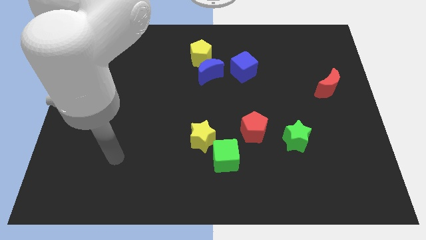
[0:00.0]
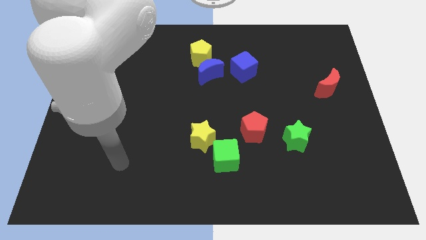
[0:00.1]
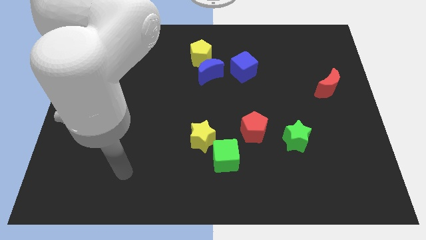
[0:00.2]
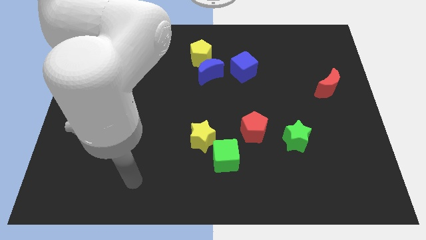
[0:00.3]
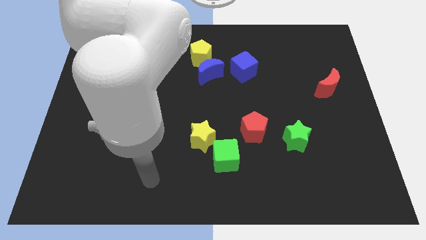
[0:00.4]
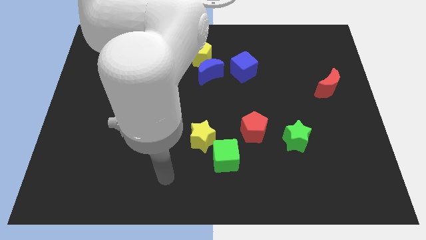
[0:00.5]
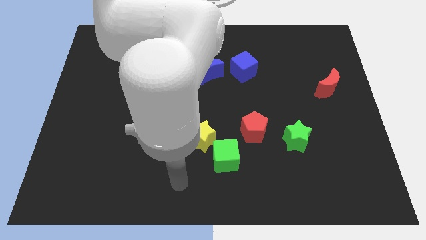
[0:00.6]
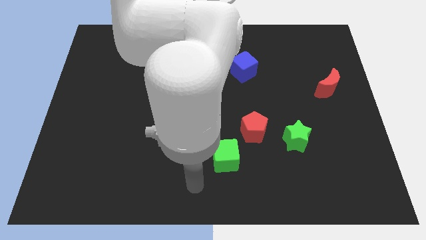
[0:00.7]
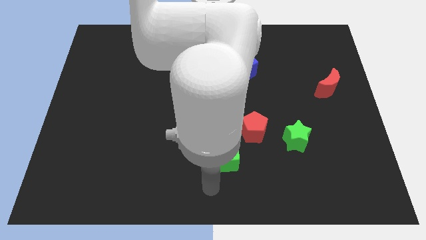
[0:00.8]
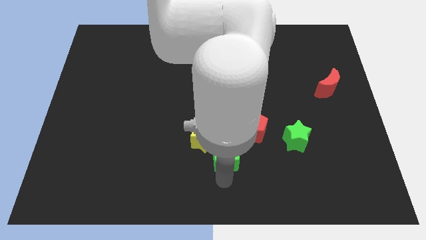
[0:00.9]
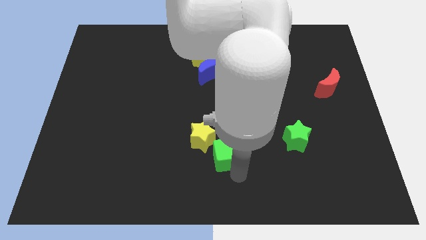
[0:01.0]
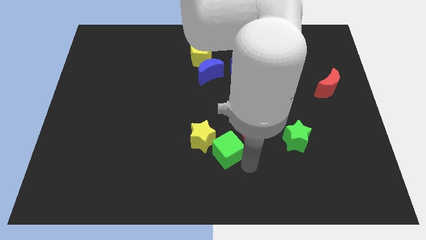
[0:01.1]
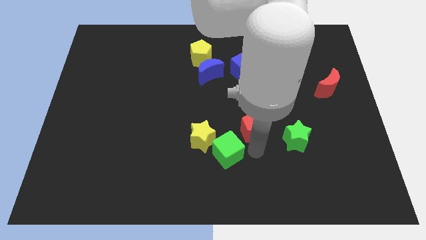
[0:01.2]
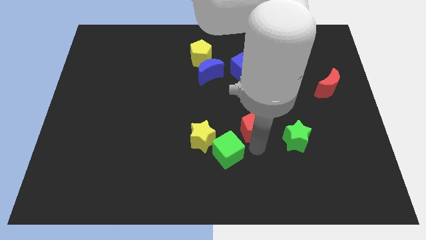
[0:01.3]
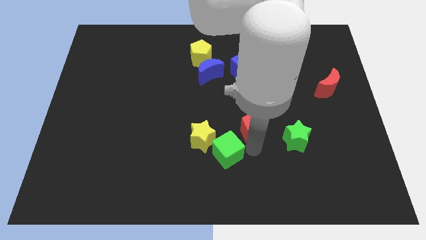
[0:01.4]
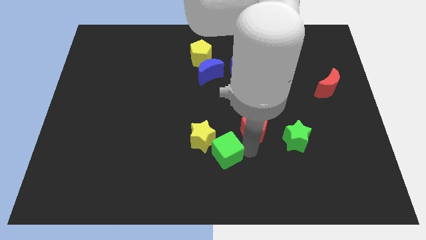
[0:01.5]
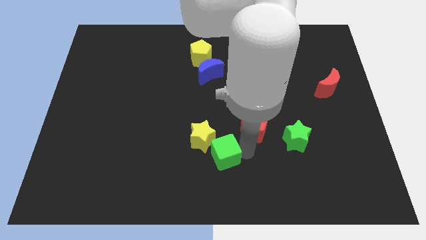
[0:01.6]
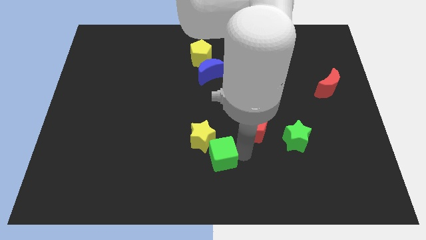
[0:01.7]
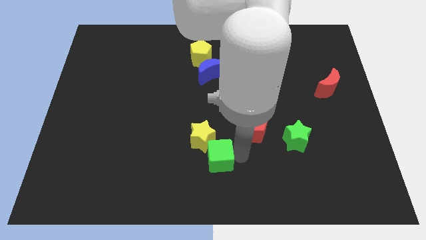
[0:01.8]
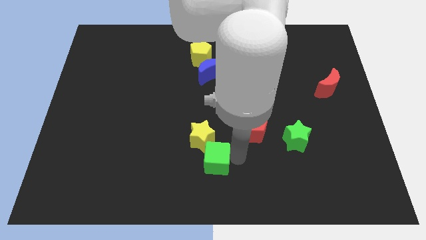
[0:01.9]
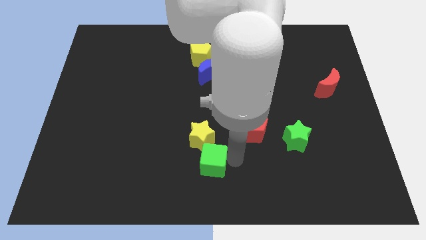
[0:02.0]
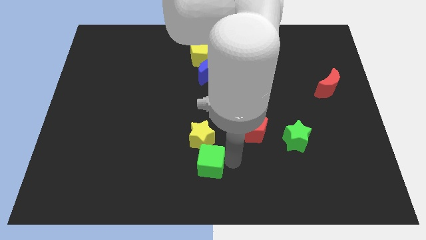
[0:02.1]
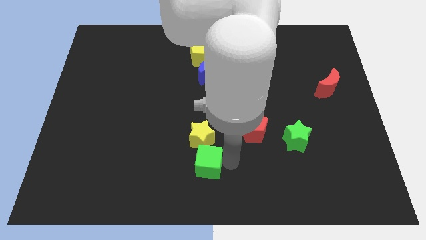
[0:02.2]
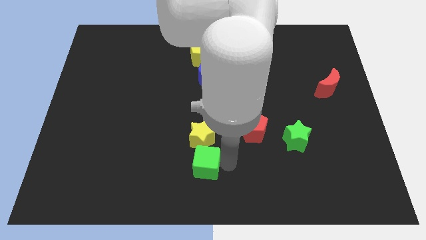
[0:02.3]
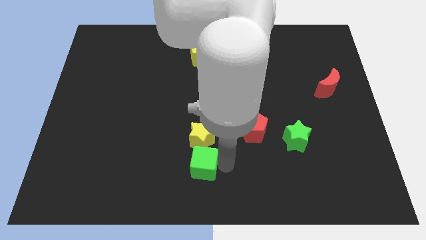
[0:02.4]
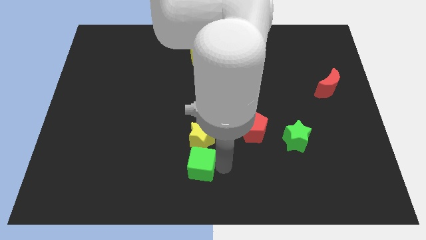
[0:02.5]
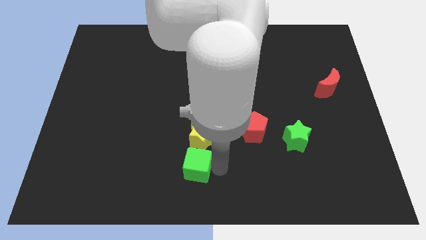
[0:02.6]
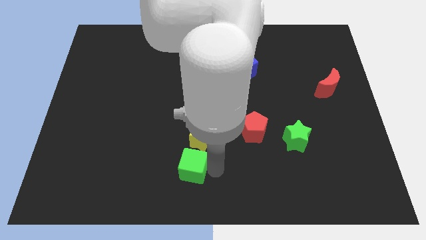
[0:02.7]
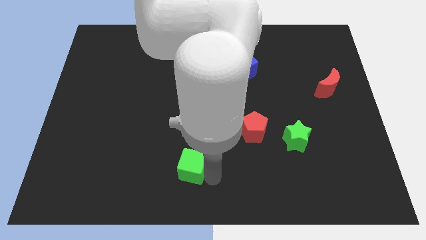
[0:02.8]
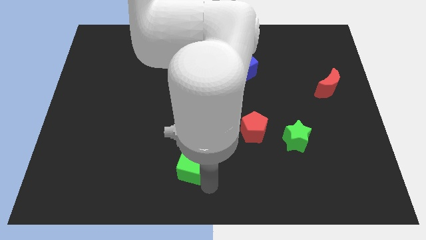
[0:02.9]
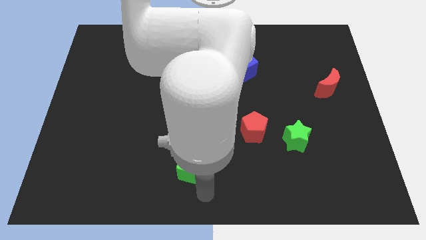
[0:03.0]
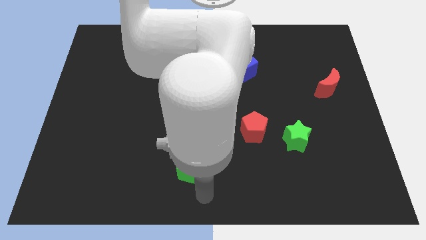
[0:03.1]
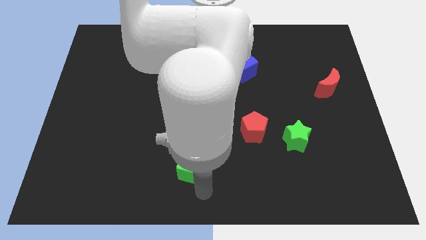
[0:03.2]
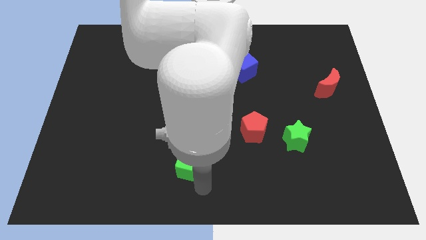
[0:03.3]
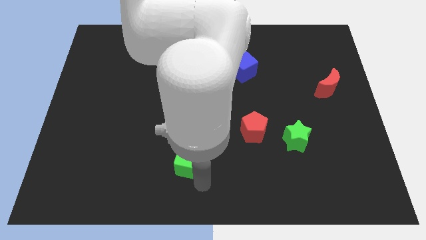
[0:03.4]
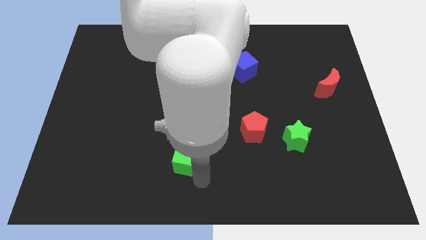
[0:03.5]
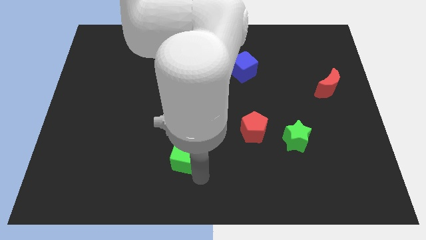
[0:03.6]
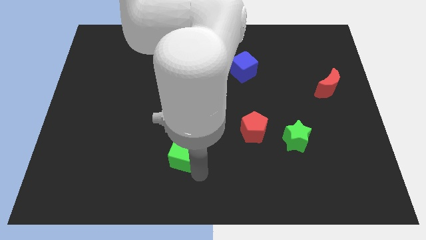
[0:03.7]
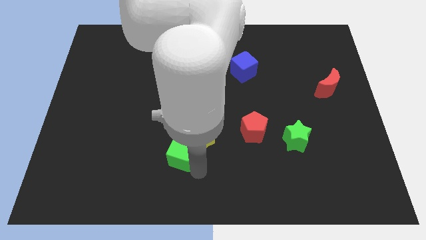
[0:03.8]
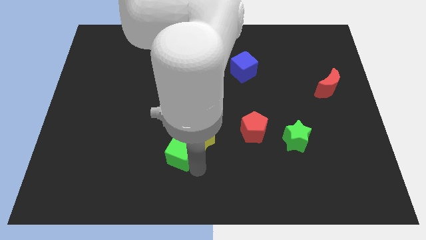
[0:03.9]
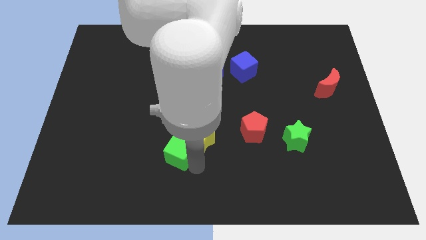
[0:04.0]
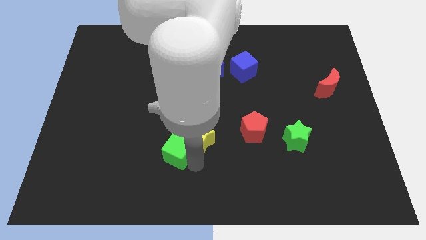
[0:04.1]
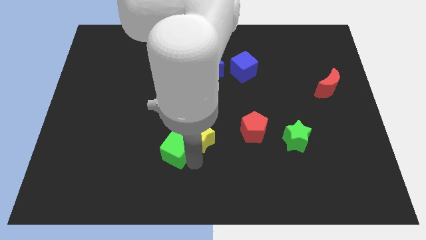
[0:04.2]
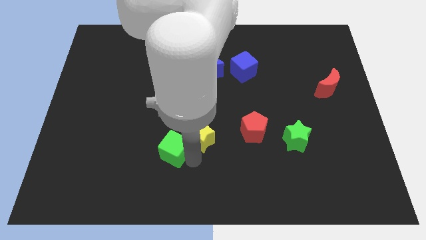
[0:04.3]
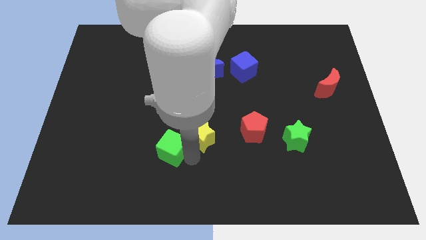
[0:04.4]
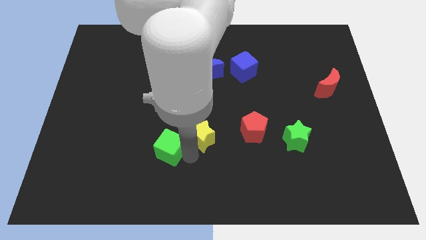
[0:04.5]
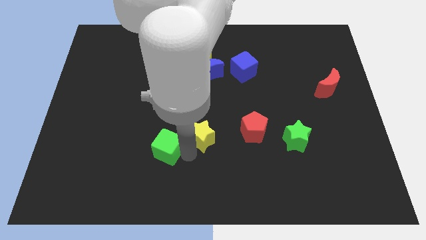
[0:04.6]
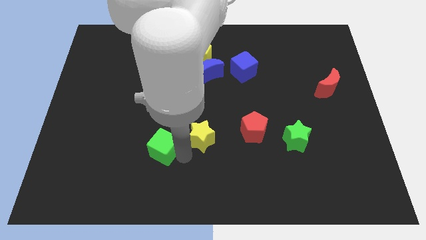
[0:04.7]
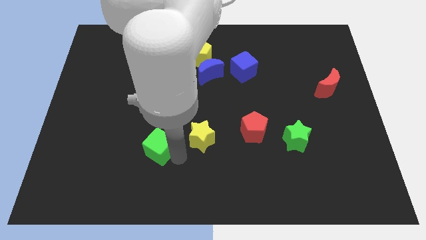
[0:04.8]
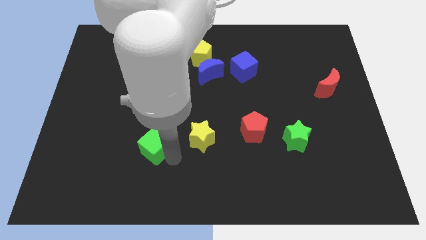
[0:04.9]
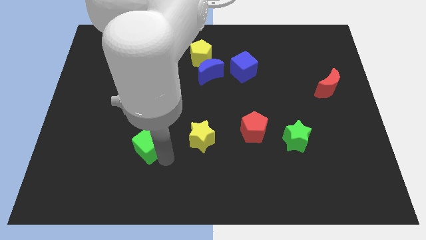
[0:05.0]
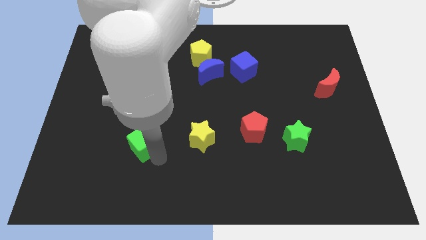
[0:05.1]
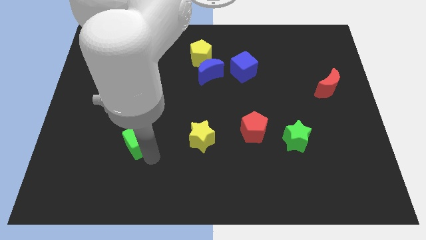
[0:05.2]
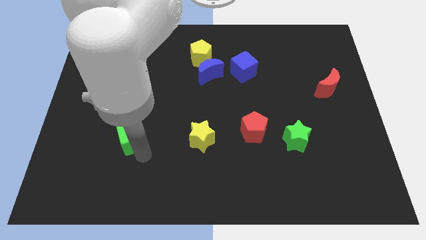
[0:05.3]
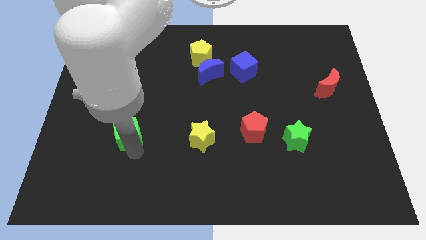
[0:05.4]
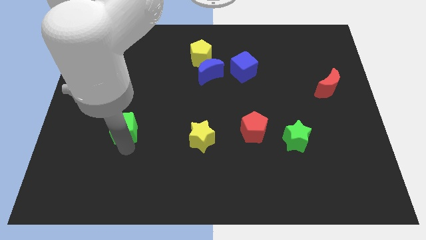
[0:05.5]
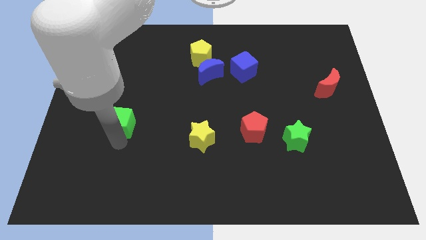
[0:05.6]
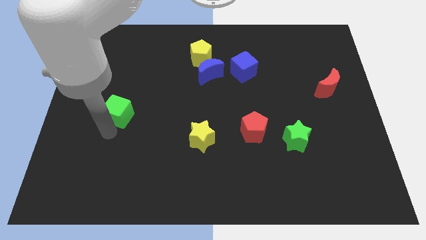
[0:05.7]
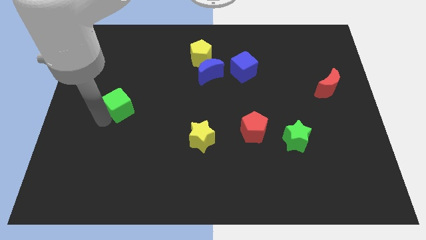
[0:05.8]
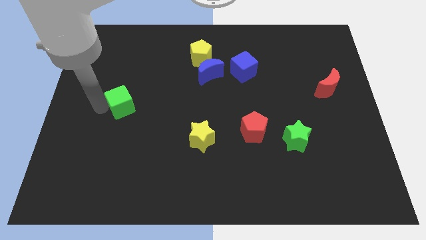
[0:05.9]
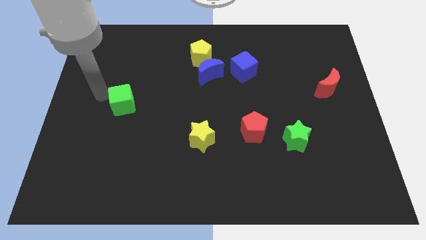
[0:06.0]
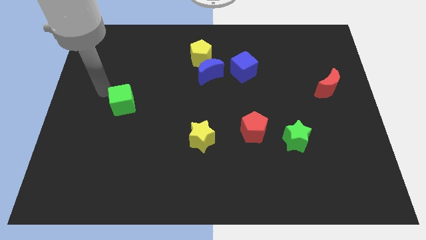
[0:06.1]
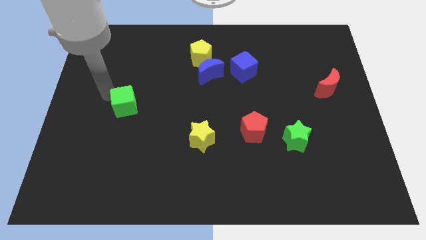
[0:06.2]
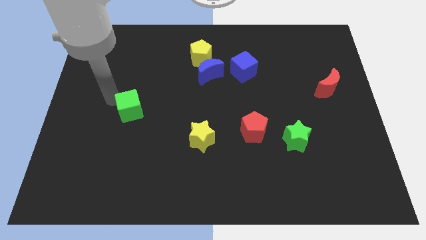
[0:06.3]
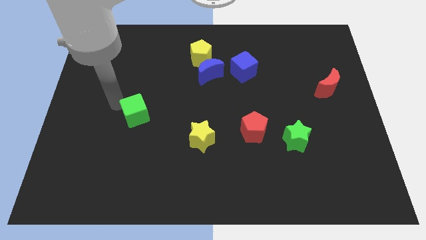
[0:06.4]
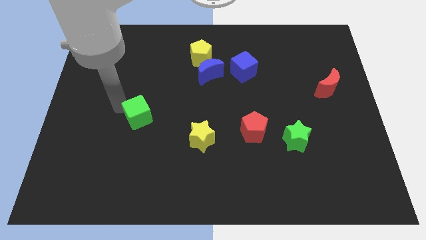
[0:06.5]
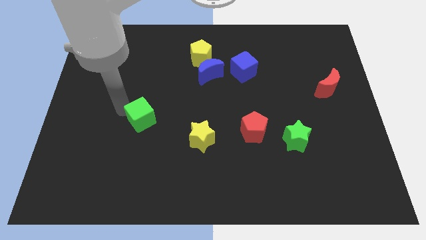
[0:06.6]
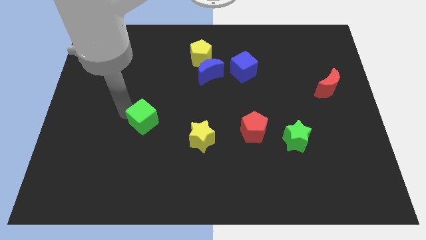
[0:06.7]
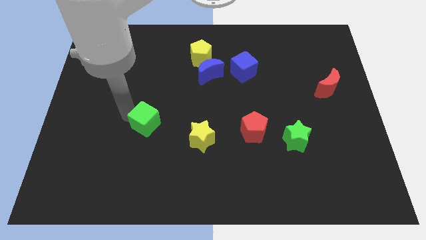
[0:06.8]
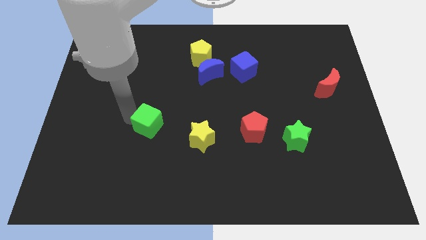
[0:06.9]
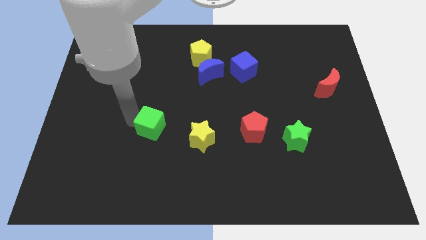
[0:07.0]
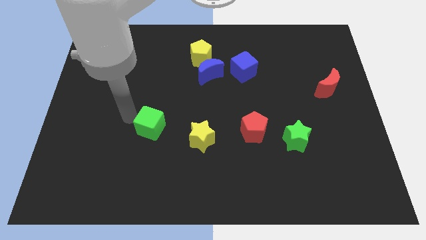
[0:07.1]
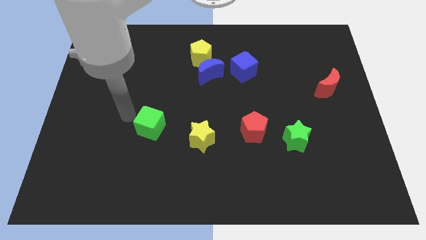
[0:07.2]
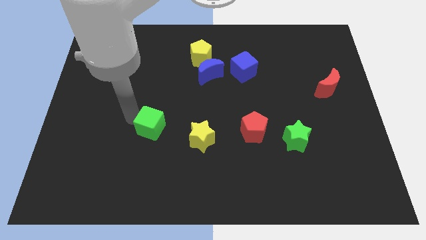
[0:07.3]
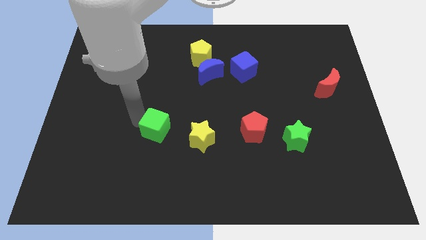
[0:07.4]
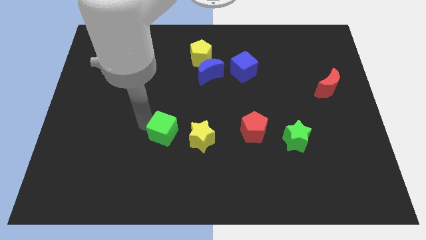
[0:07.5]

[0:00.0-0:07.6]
push the green cube diagonally up and to the left of the yellow star
